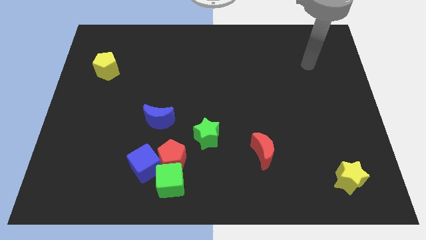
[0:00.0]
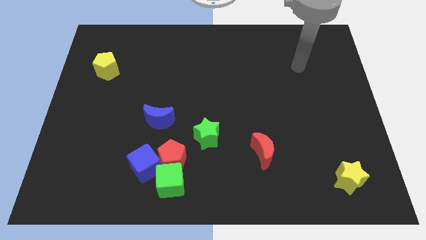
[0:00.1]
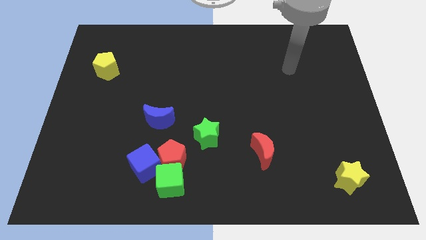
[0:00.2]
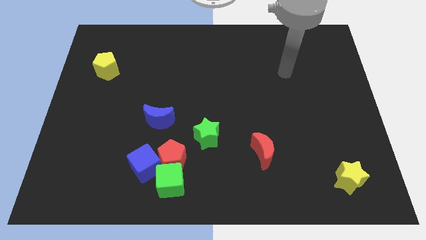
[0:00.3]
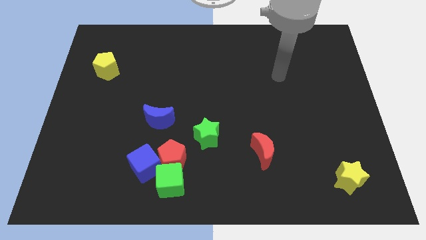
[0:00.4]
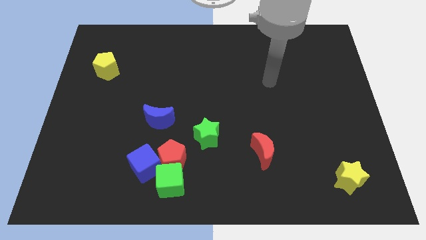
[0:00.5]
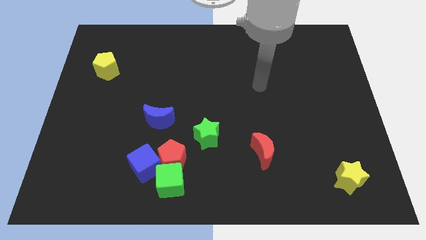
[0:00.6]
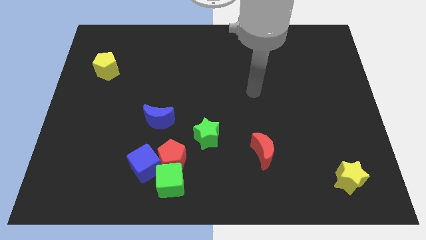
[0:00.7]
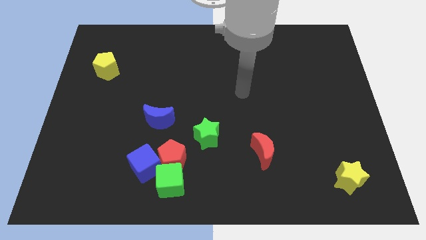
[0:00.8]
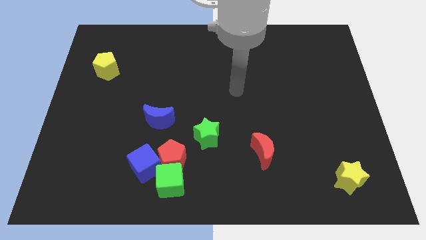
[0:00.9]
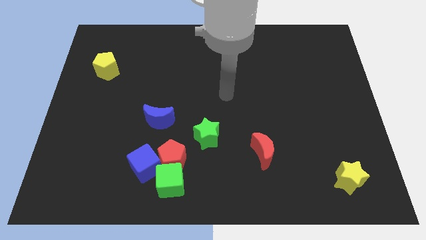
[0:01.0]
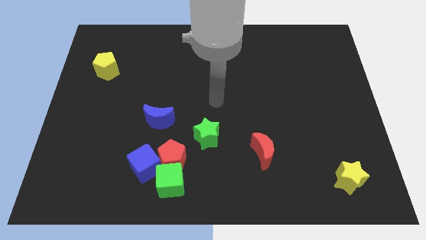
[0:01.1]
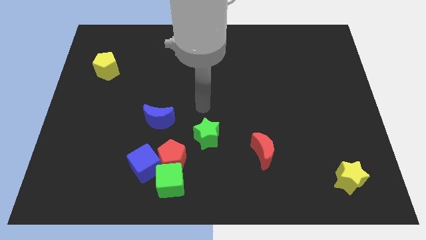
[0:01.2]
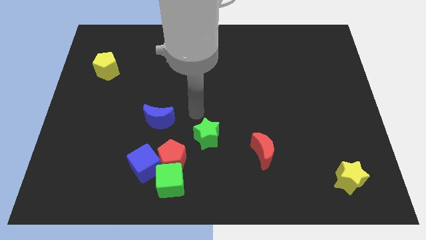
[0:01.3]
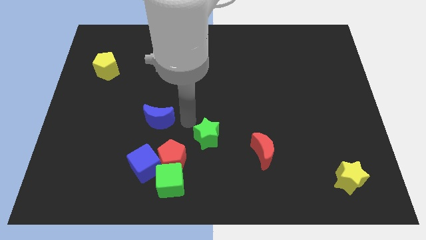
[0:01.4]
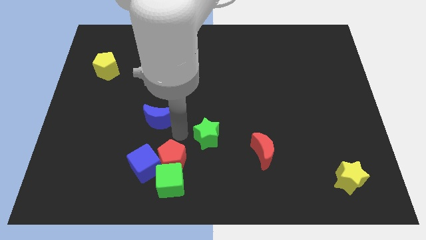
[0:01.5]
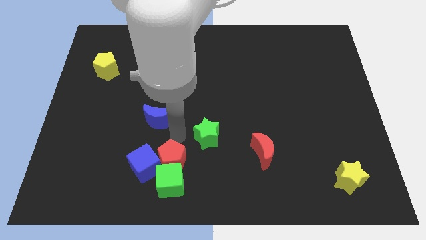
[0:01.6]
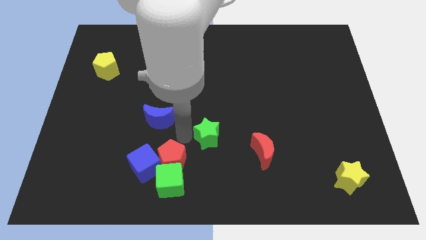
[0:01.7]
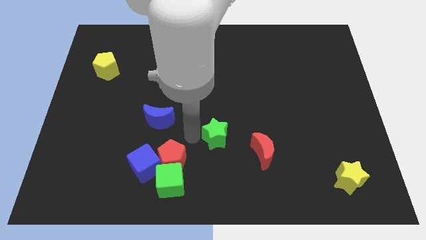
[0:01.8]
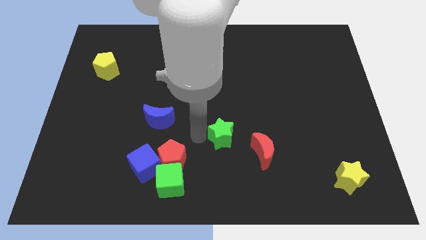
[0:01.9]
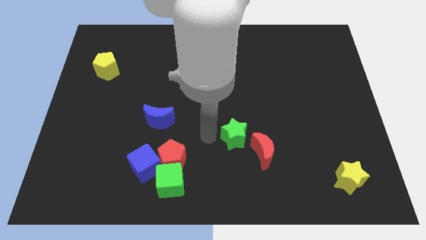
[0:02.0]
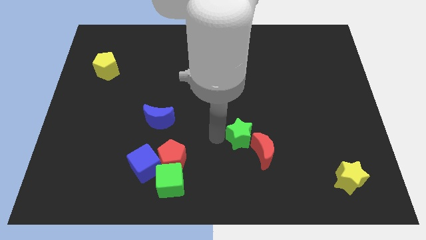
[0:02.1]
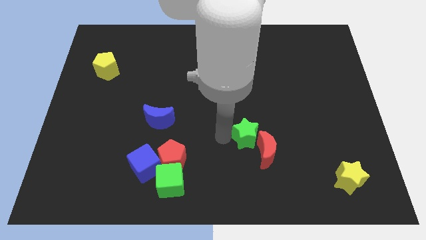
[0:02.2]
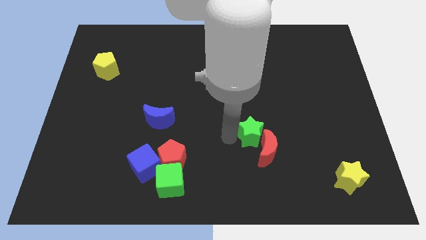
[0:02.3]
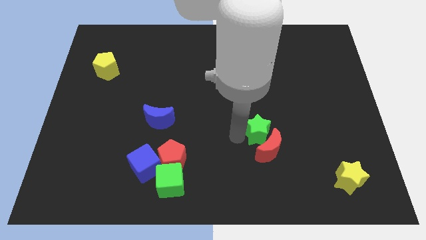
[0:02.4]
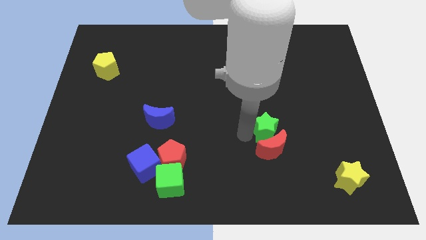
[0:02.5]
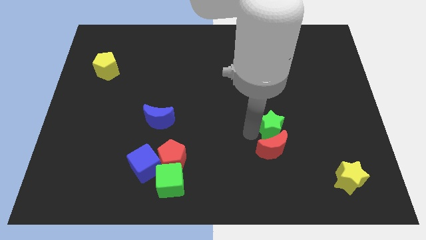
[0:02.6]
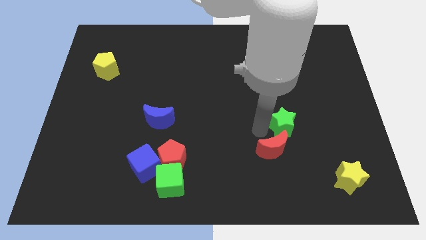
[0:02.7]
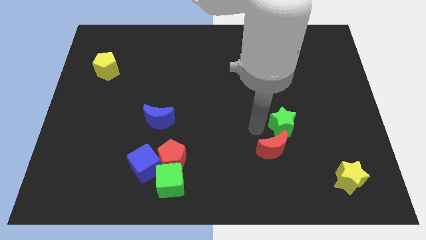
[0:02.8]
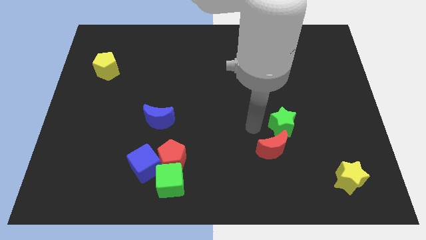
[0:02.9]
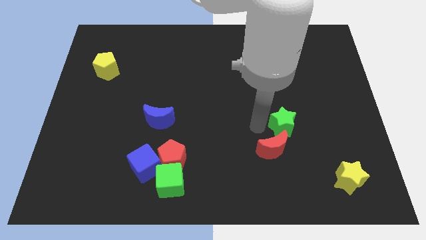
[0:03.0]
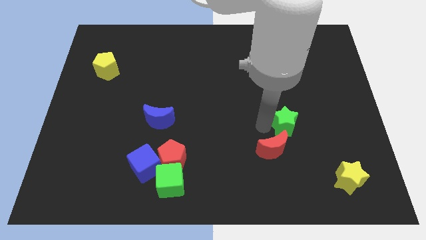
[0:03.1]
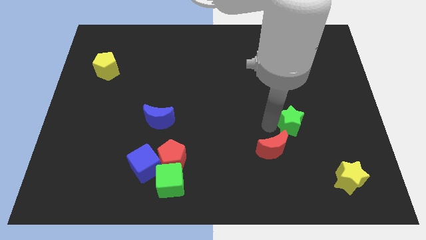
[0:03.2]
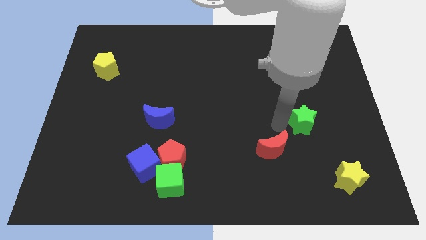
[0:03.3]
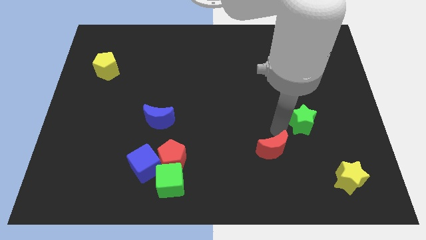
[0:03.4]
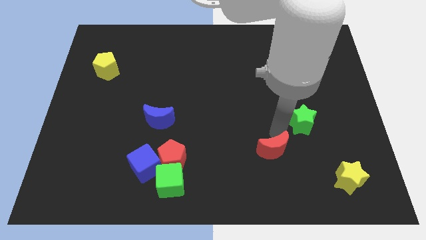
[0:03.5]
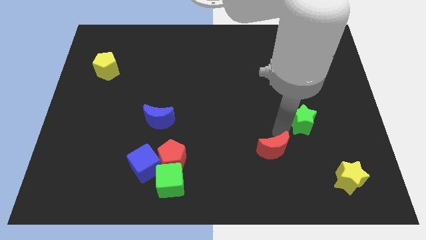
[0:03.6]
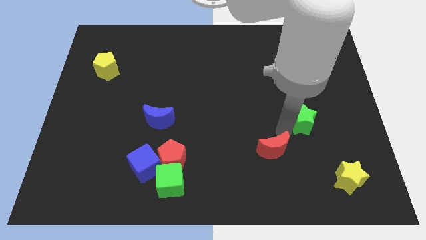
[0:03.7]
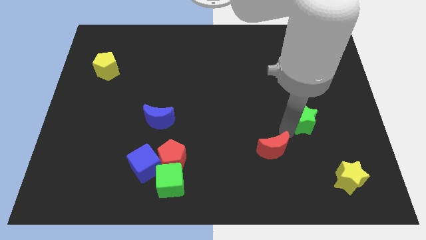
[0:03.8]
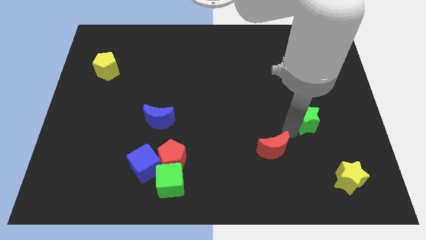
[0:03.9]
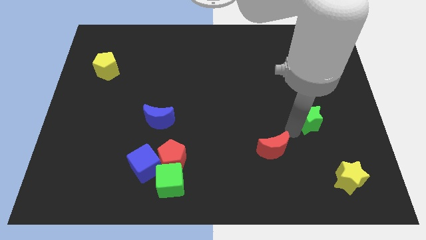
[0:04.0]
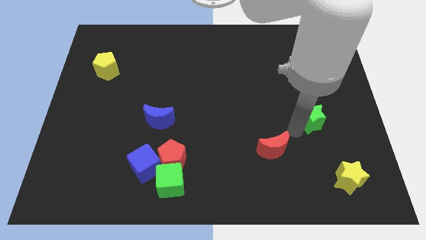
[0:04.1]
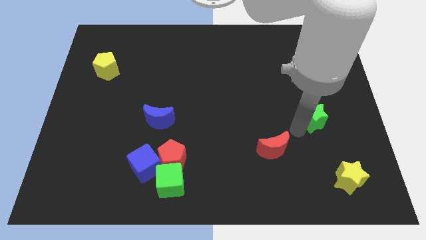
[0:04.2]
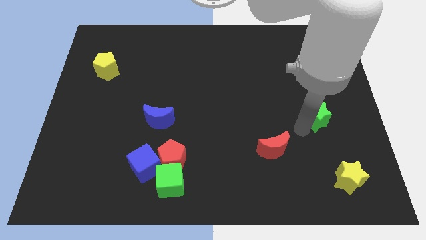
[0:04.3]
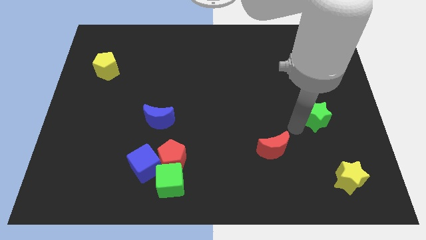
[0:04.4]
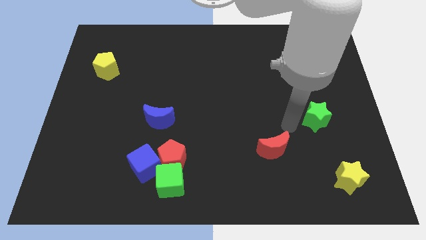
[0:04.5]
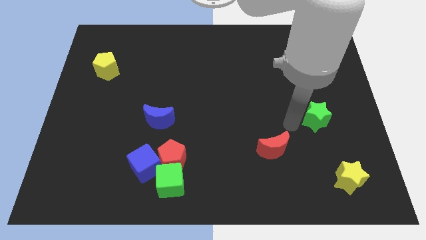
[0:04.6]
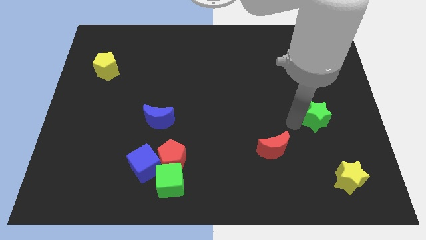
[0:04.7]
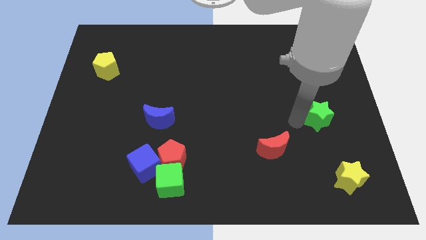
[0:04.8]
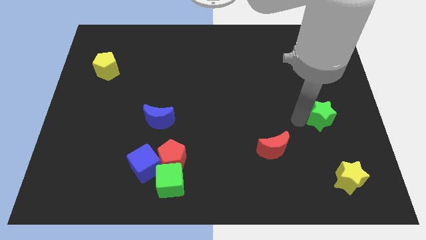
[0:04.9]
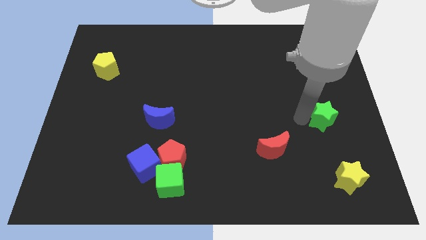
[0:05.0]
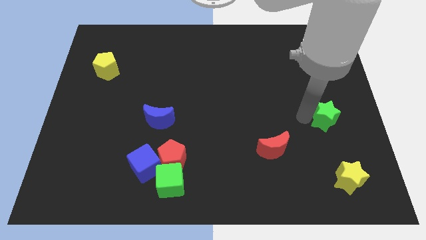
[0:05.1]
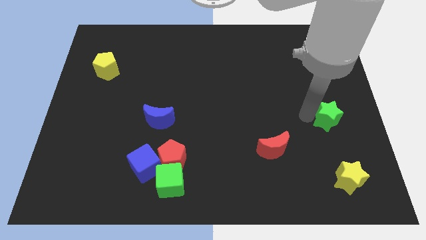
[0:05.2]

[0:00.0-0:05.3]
slide the green star to the right side of the board

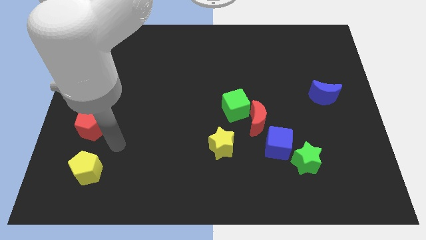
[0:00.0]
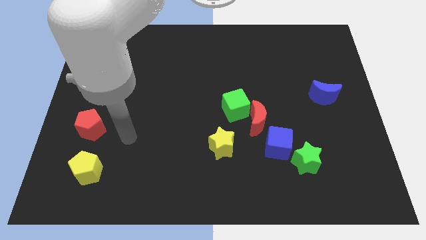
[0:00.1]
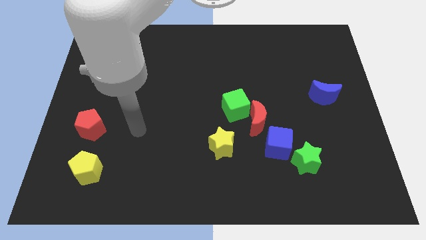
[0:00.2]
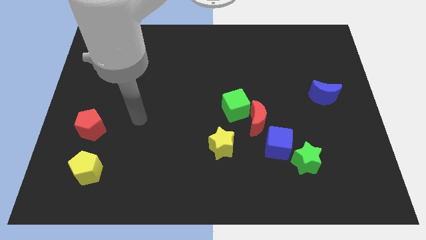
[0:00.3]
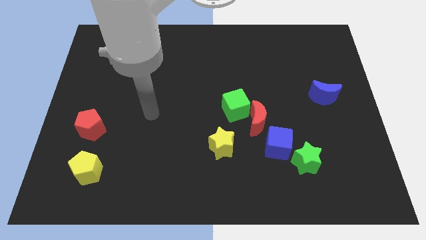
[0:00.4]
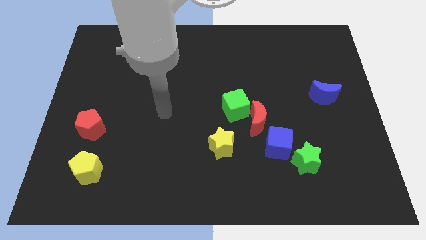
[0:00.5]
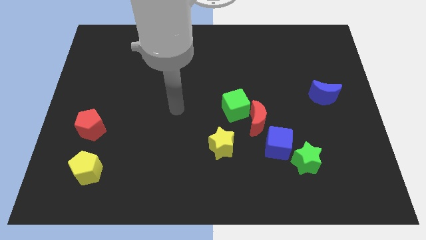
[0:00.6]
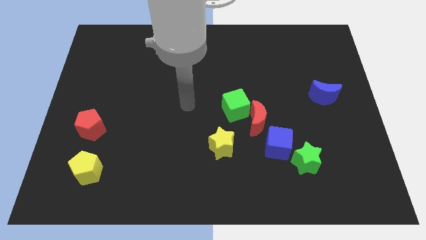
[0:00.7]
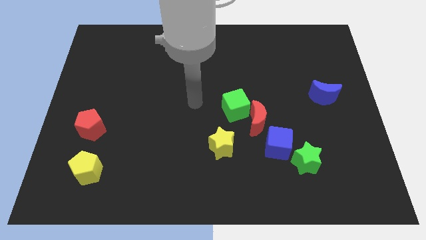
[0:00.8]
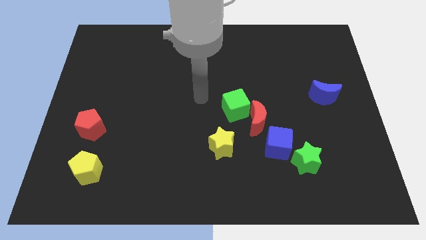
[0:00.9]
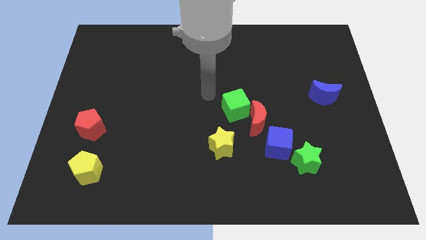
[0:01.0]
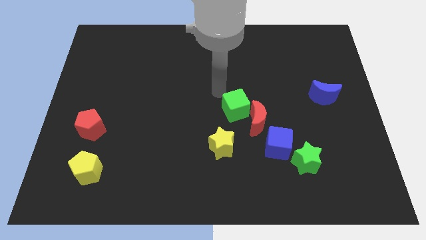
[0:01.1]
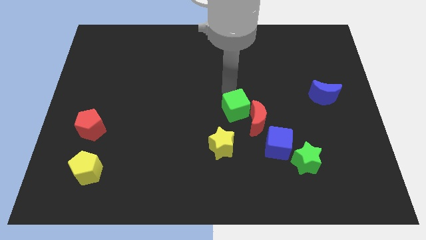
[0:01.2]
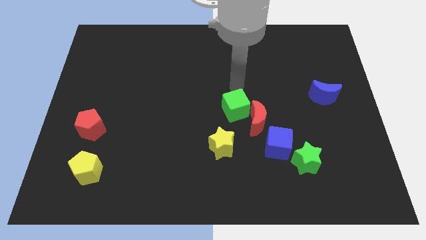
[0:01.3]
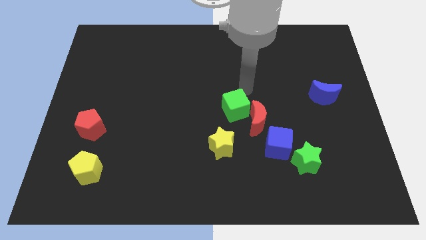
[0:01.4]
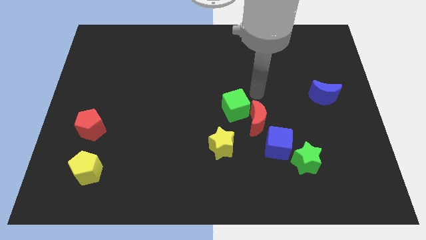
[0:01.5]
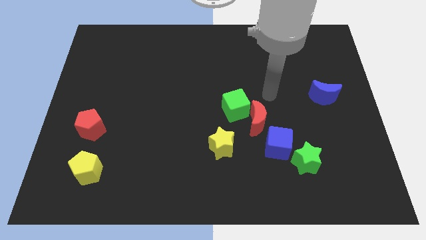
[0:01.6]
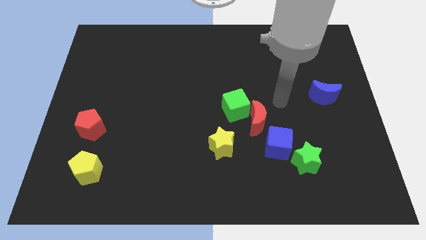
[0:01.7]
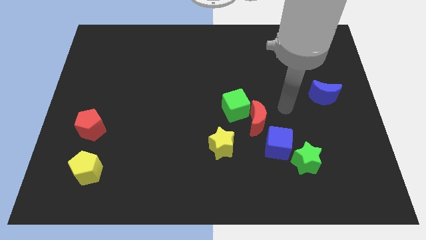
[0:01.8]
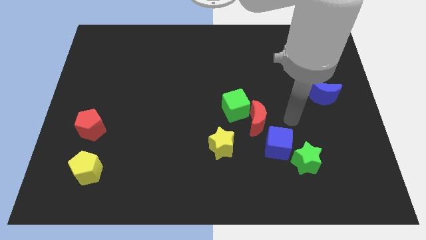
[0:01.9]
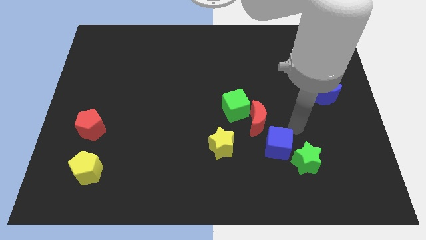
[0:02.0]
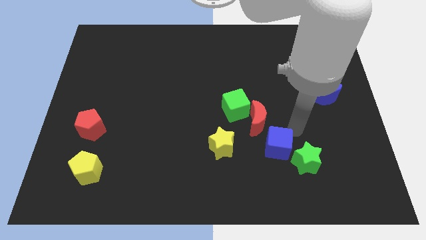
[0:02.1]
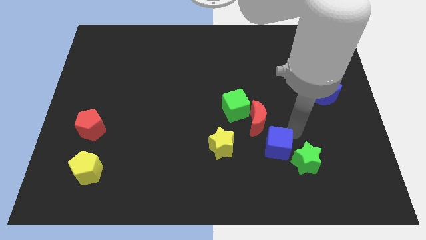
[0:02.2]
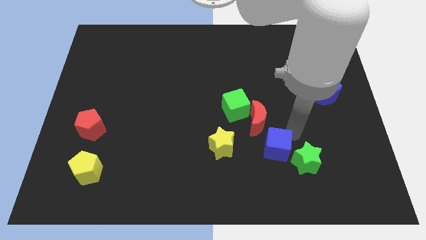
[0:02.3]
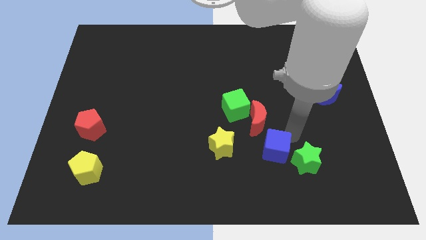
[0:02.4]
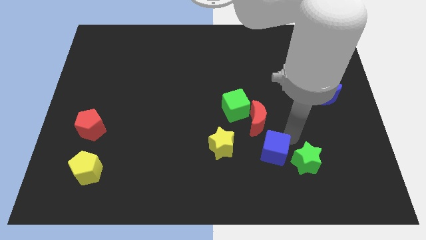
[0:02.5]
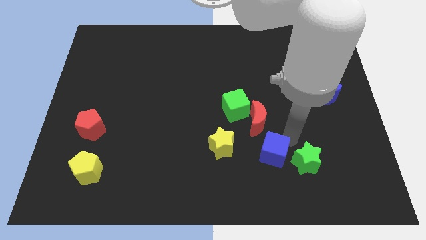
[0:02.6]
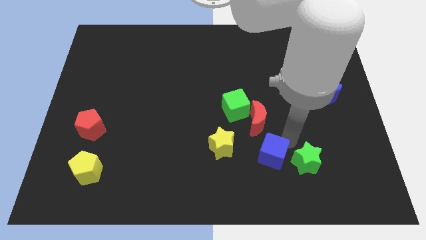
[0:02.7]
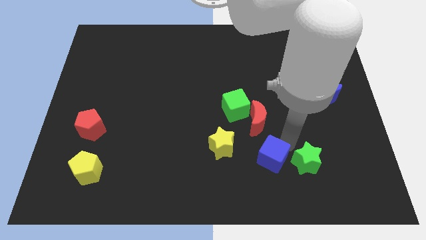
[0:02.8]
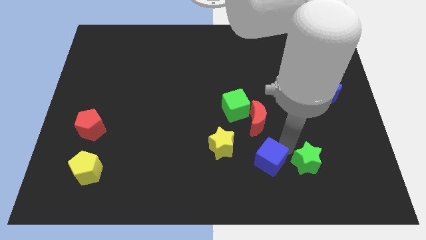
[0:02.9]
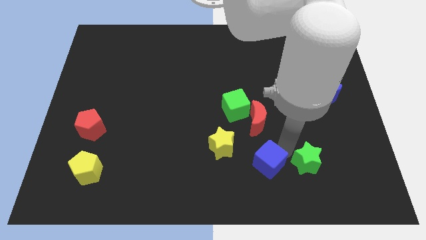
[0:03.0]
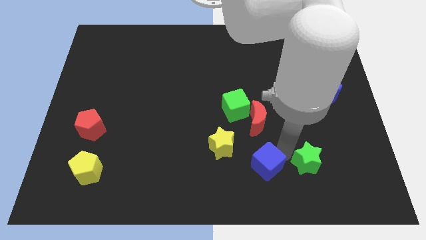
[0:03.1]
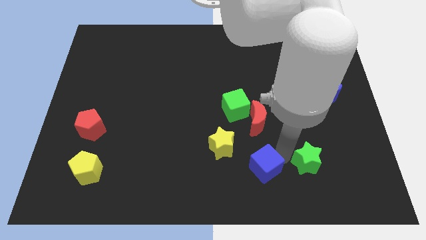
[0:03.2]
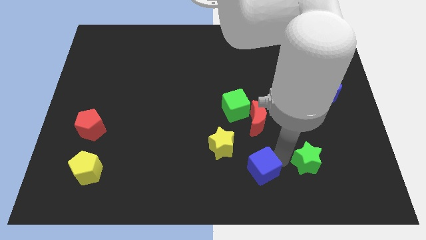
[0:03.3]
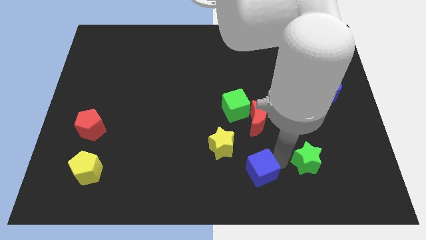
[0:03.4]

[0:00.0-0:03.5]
put the blue cube to the bottom side
